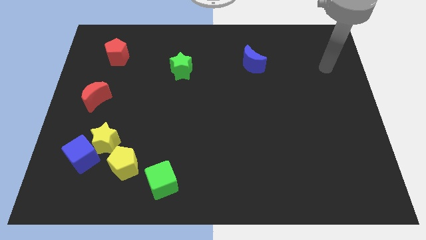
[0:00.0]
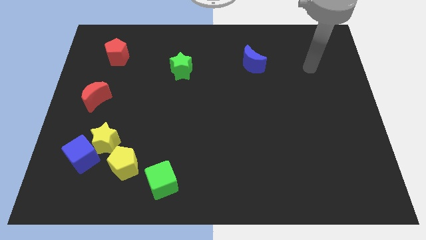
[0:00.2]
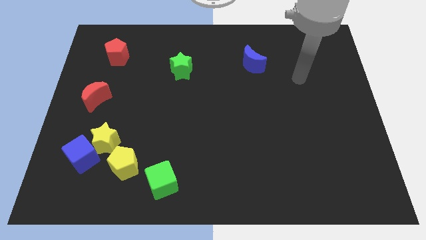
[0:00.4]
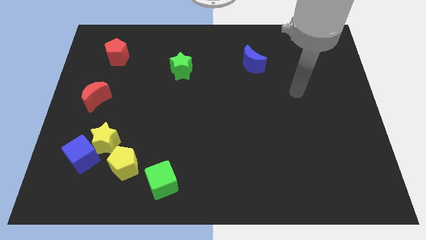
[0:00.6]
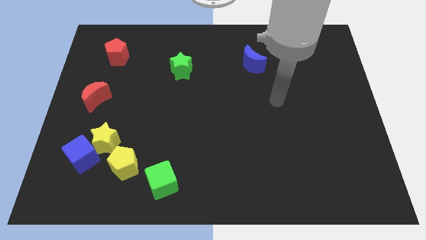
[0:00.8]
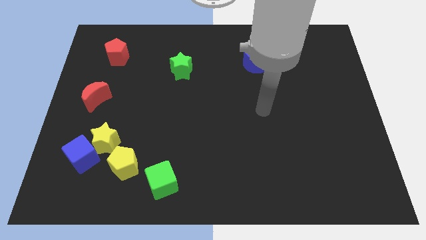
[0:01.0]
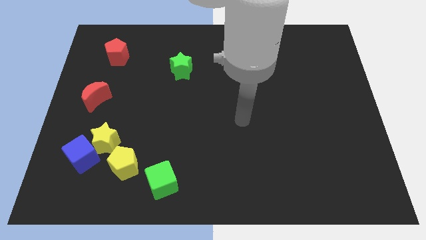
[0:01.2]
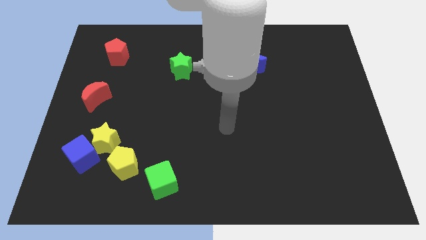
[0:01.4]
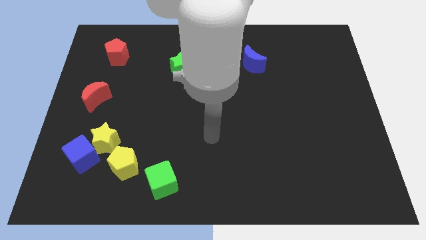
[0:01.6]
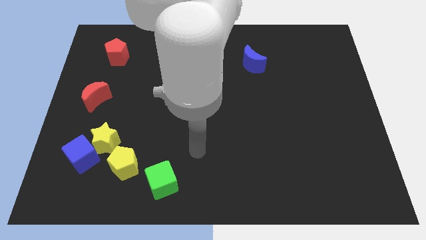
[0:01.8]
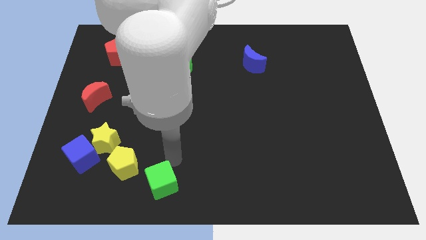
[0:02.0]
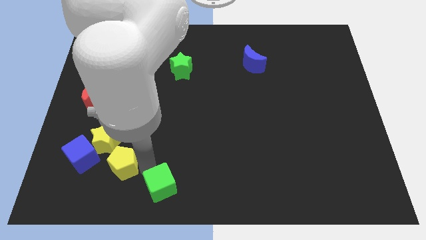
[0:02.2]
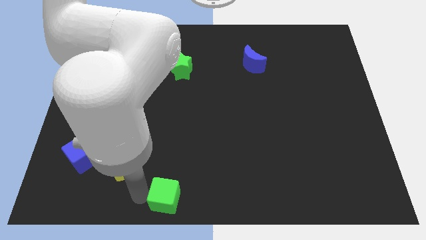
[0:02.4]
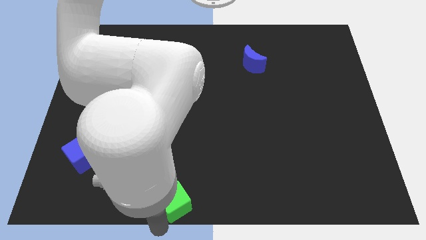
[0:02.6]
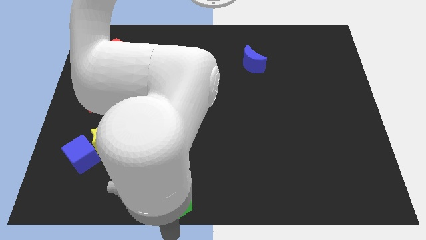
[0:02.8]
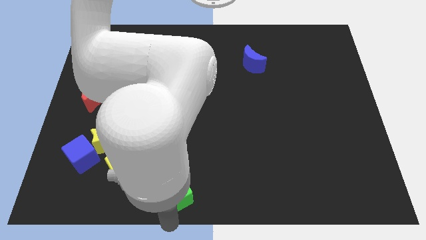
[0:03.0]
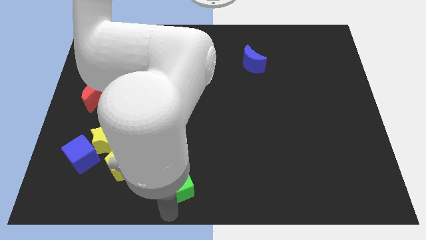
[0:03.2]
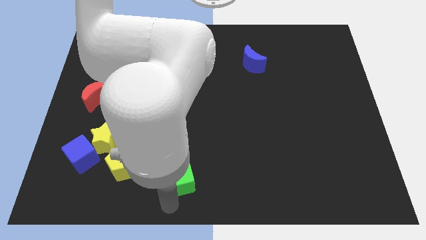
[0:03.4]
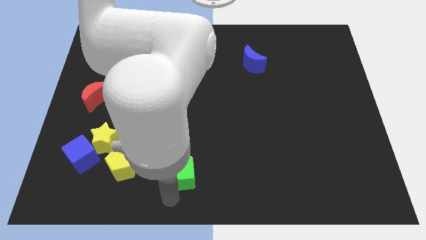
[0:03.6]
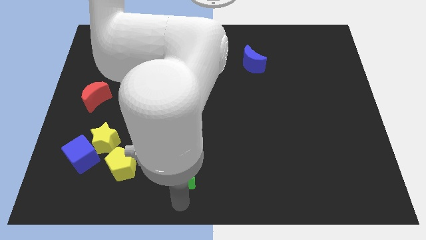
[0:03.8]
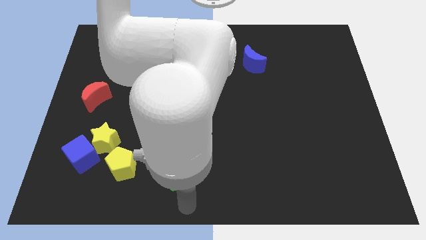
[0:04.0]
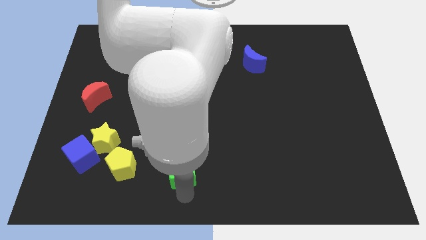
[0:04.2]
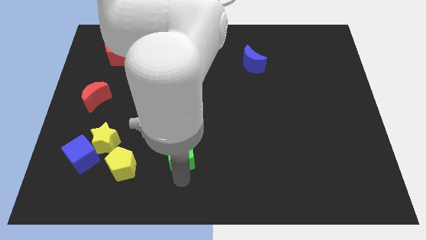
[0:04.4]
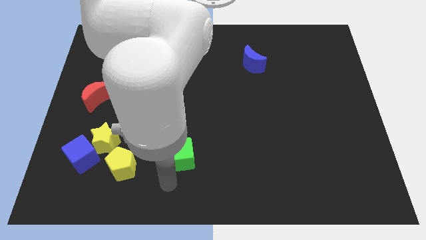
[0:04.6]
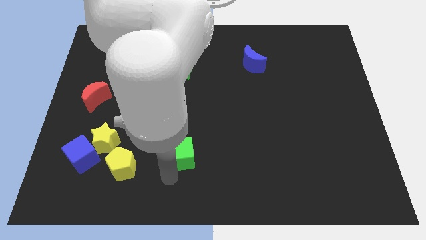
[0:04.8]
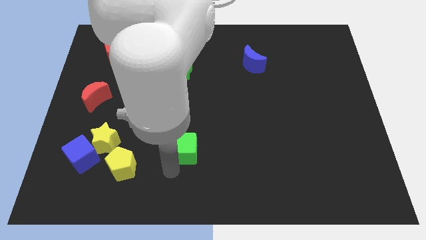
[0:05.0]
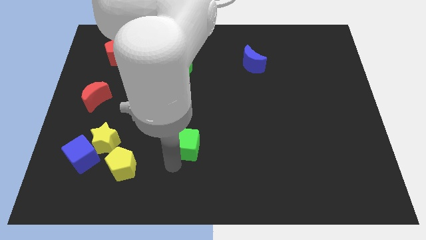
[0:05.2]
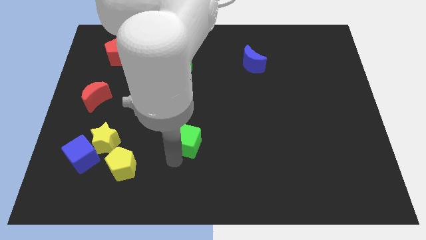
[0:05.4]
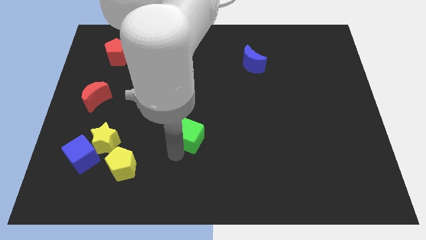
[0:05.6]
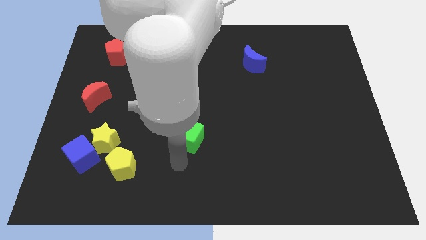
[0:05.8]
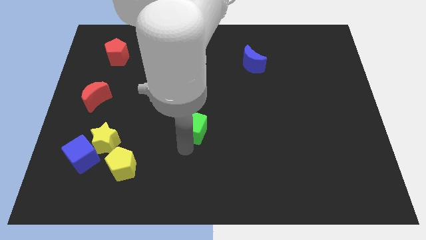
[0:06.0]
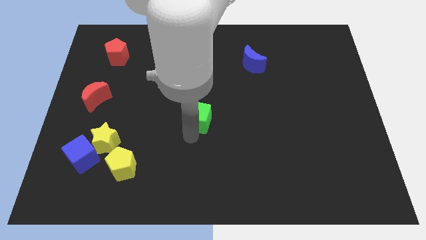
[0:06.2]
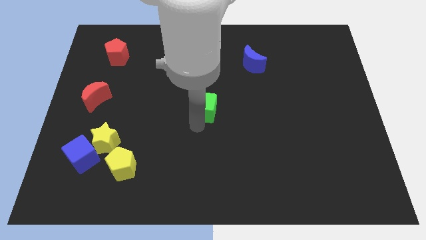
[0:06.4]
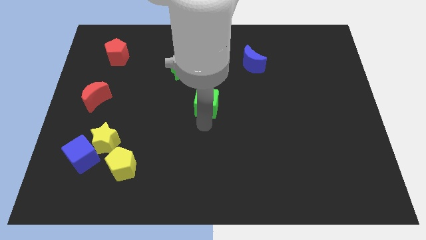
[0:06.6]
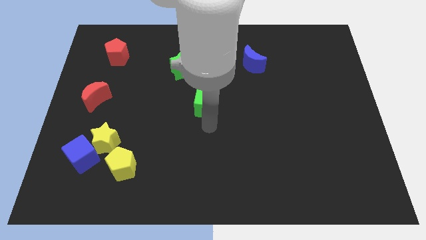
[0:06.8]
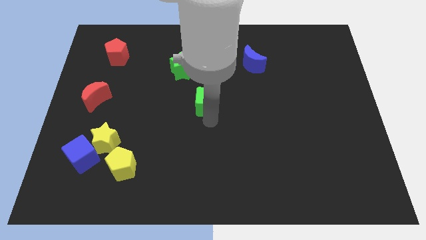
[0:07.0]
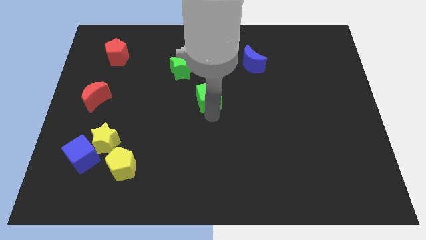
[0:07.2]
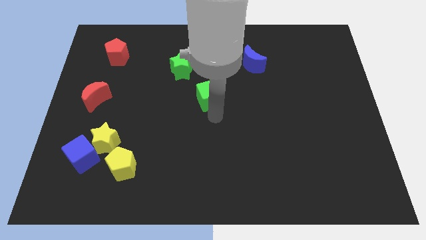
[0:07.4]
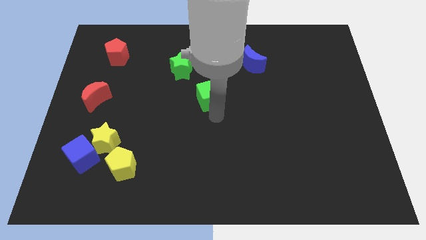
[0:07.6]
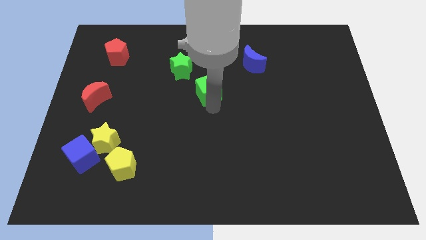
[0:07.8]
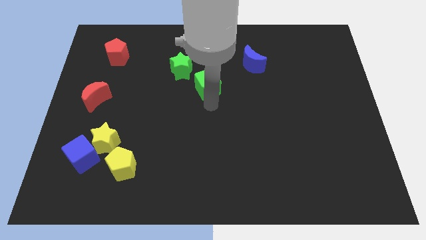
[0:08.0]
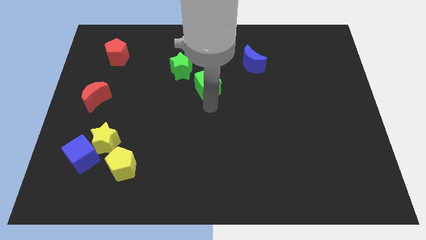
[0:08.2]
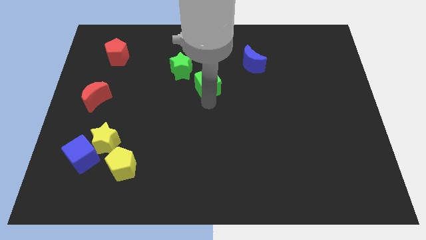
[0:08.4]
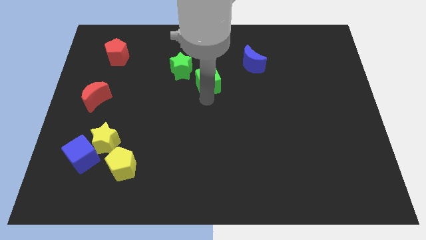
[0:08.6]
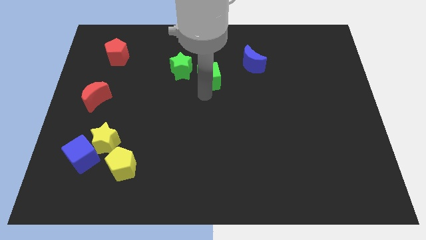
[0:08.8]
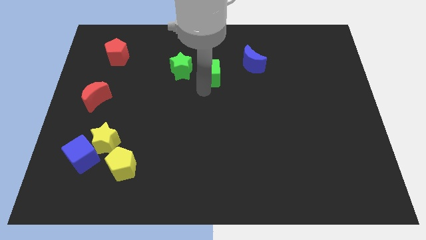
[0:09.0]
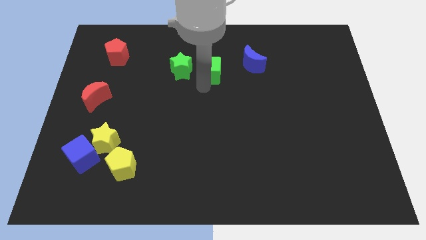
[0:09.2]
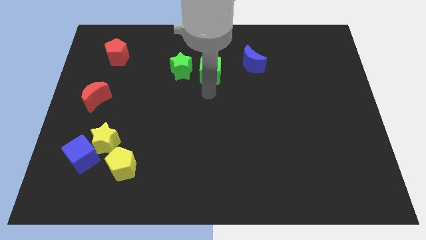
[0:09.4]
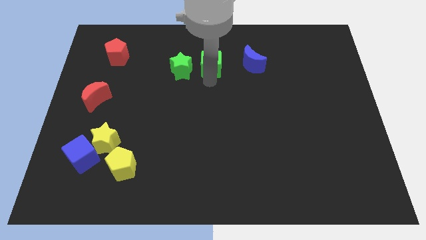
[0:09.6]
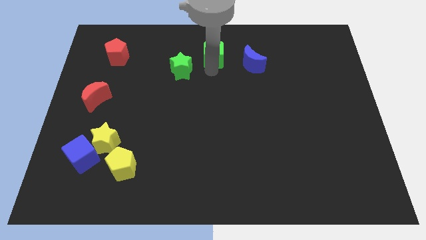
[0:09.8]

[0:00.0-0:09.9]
put the green cube to the top side

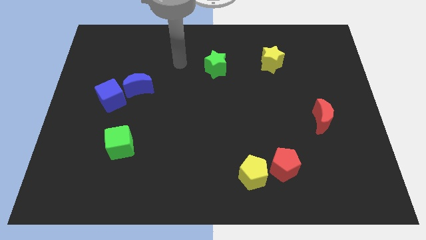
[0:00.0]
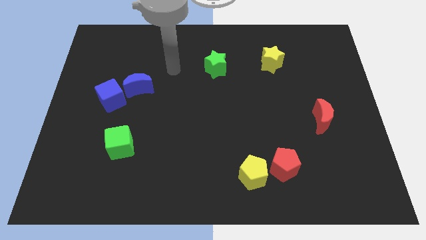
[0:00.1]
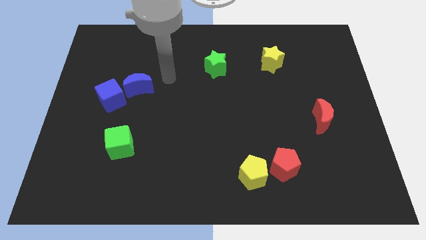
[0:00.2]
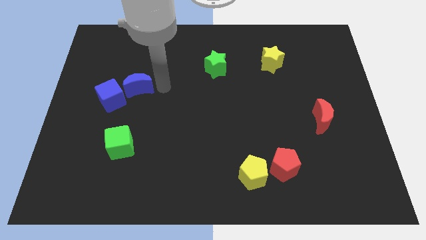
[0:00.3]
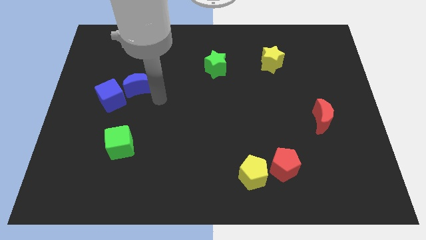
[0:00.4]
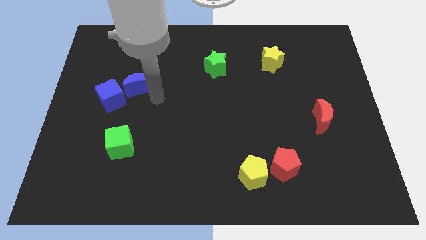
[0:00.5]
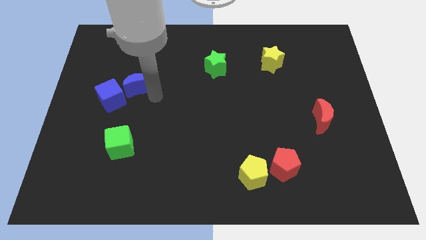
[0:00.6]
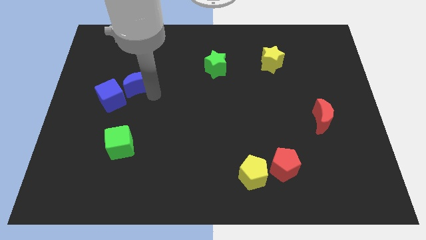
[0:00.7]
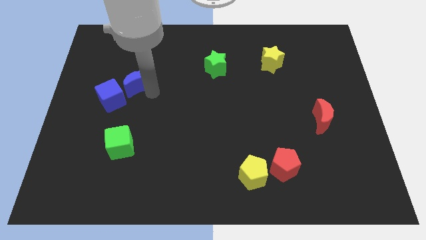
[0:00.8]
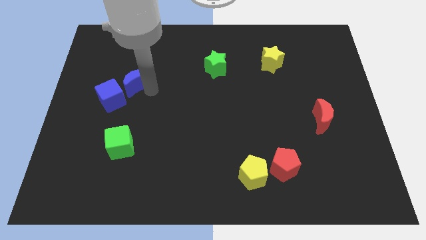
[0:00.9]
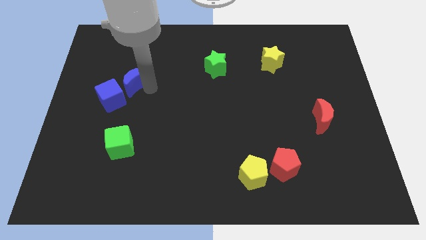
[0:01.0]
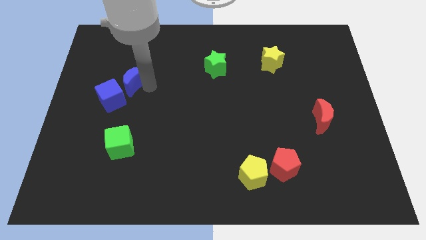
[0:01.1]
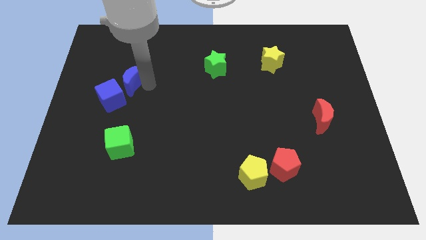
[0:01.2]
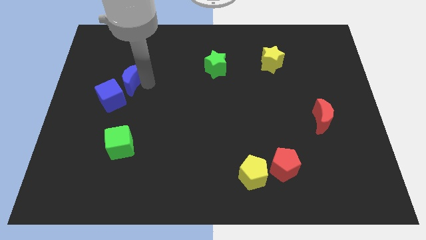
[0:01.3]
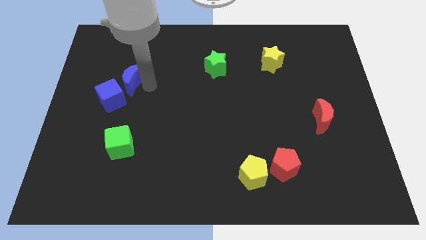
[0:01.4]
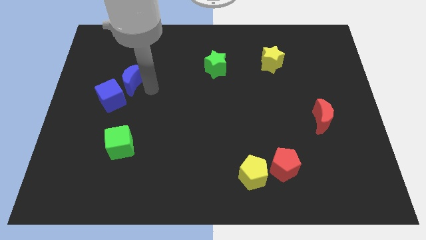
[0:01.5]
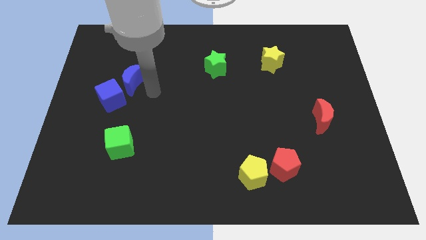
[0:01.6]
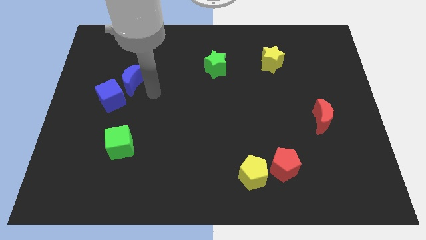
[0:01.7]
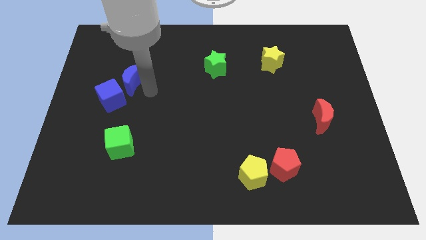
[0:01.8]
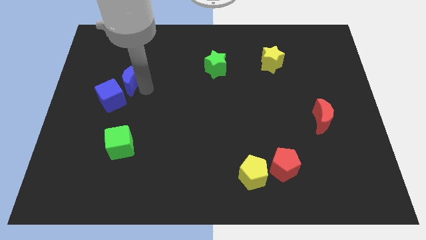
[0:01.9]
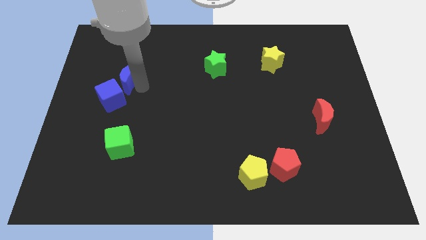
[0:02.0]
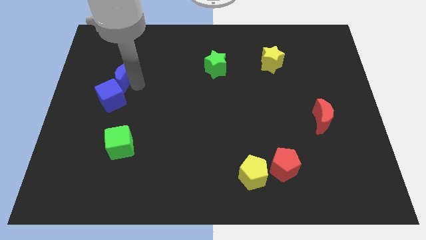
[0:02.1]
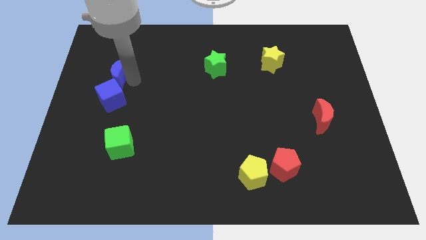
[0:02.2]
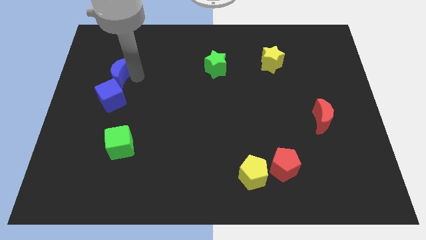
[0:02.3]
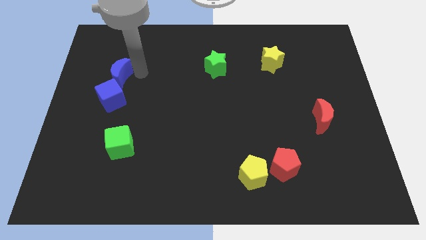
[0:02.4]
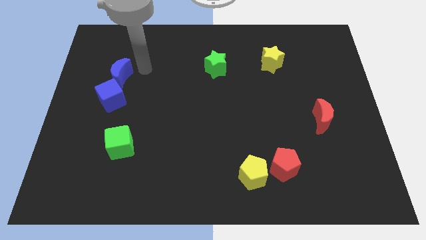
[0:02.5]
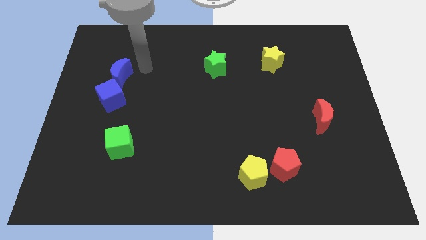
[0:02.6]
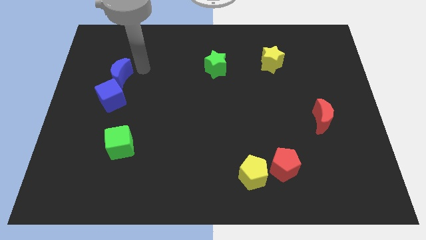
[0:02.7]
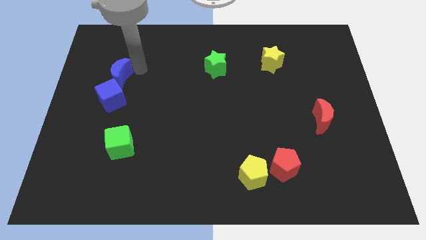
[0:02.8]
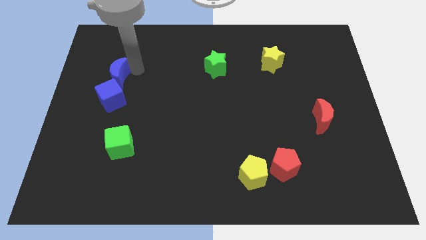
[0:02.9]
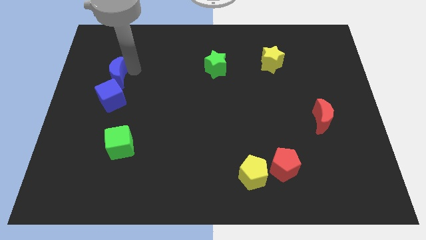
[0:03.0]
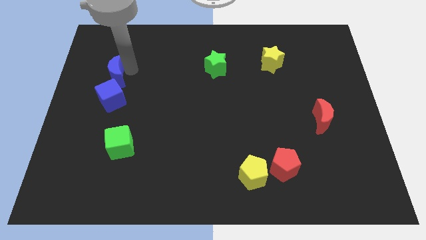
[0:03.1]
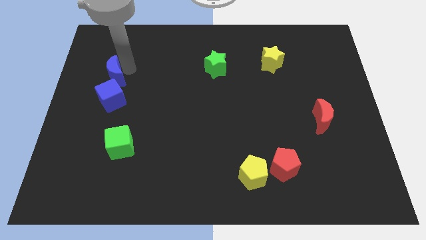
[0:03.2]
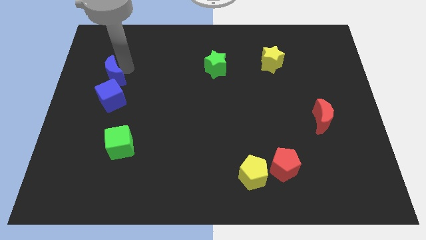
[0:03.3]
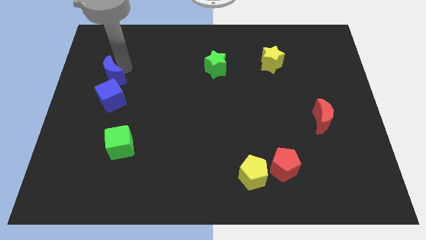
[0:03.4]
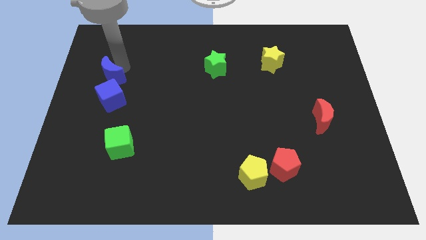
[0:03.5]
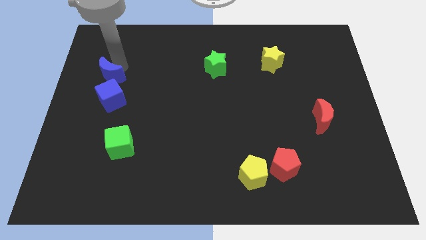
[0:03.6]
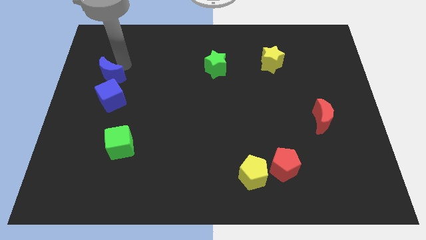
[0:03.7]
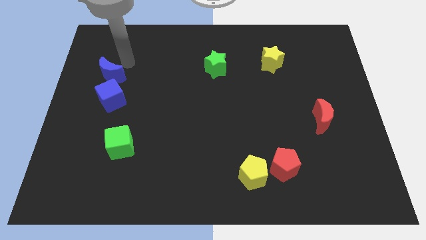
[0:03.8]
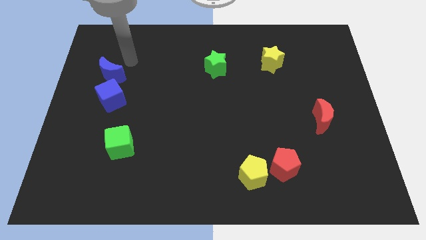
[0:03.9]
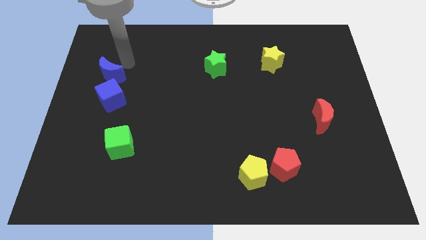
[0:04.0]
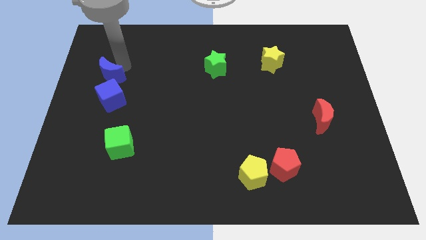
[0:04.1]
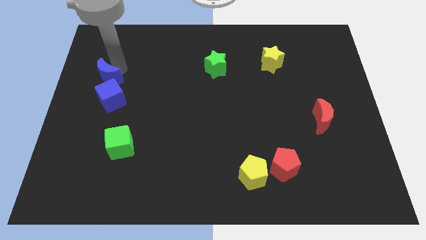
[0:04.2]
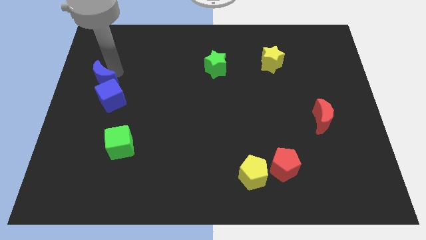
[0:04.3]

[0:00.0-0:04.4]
push the blue moon to the left side of the board
